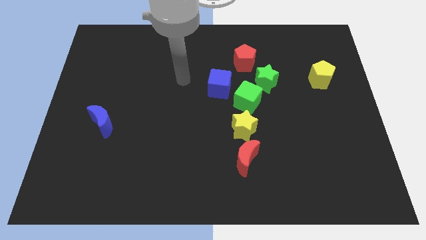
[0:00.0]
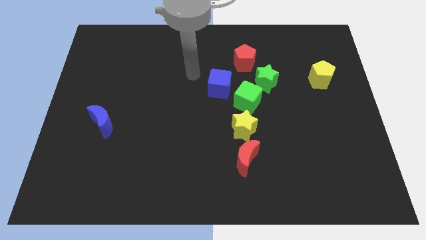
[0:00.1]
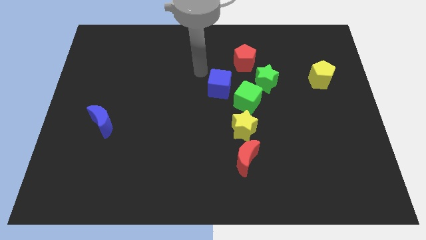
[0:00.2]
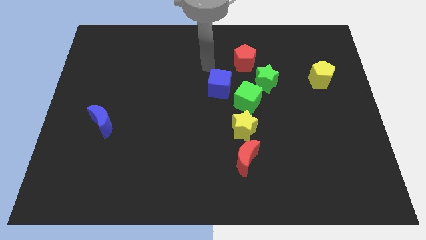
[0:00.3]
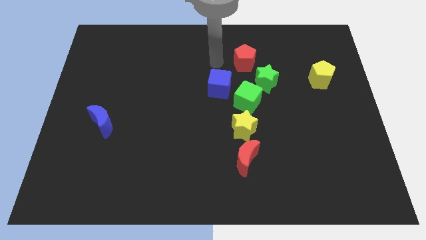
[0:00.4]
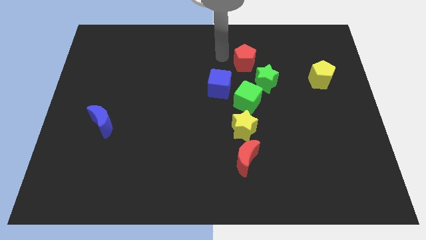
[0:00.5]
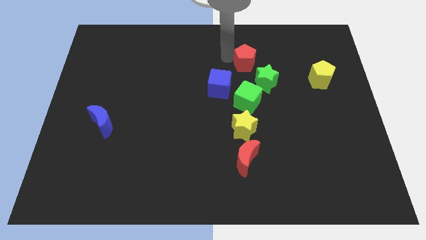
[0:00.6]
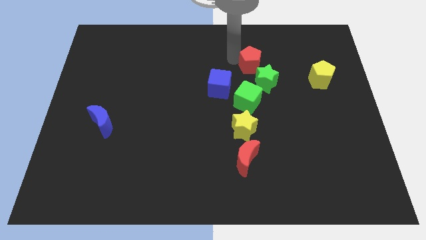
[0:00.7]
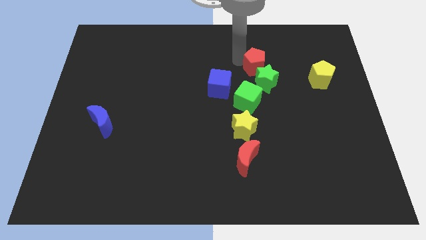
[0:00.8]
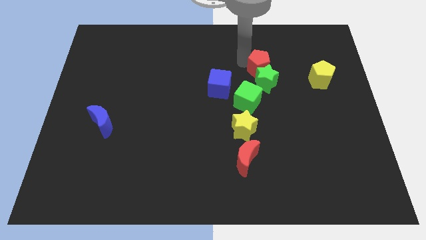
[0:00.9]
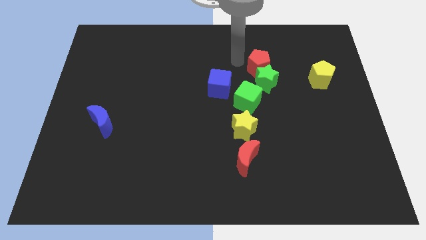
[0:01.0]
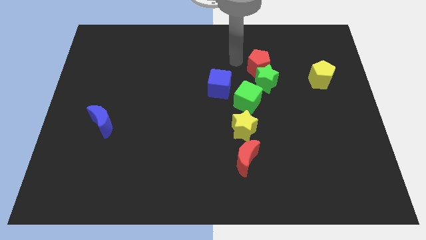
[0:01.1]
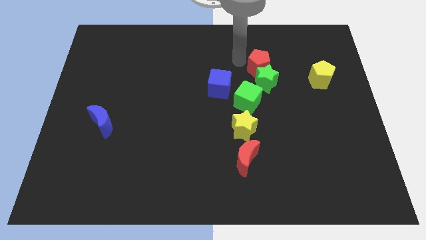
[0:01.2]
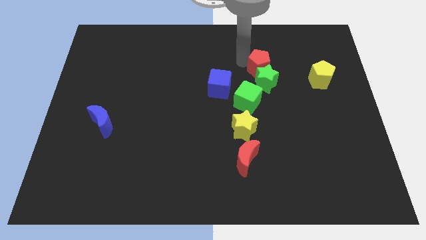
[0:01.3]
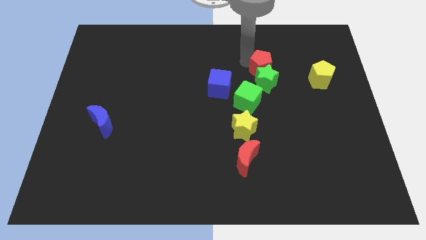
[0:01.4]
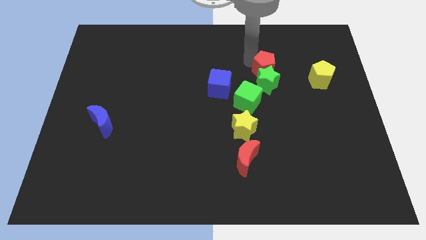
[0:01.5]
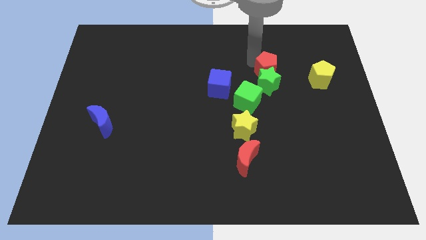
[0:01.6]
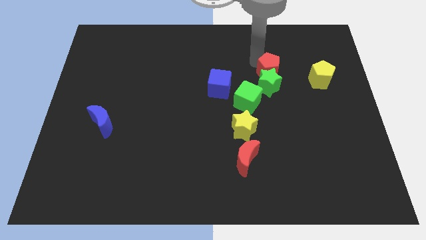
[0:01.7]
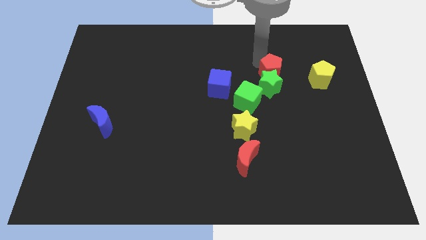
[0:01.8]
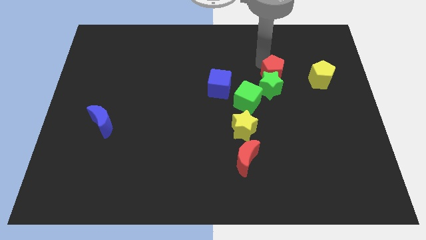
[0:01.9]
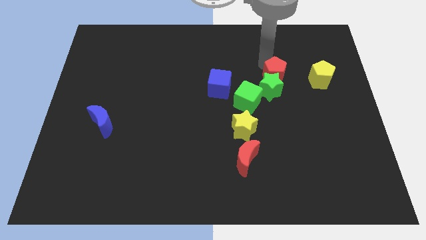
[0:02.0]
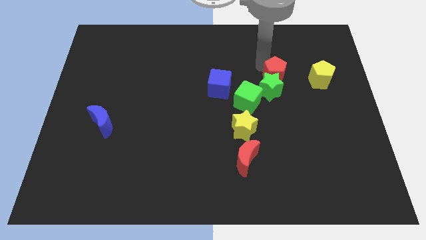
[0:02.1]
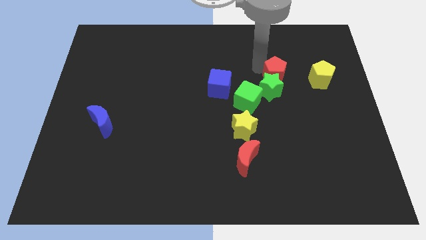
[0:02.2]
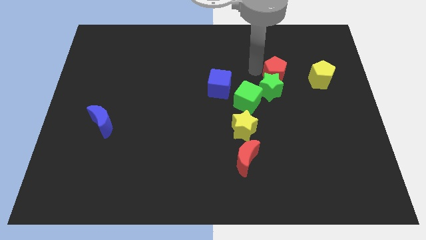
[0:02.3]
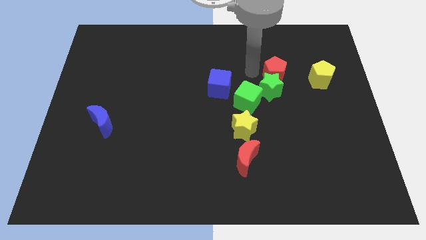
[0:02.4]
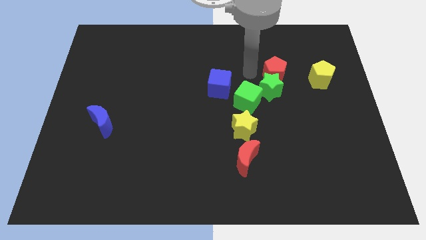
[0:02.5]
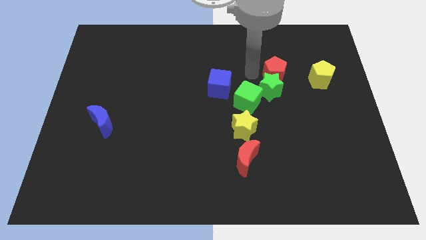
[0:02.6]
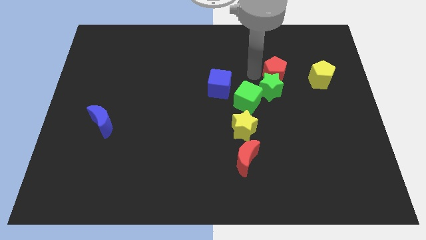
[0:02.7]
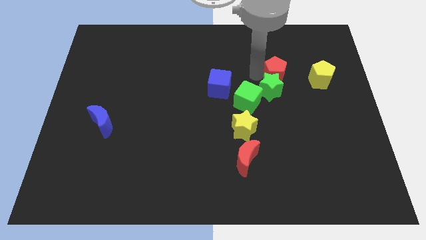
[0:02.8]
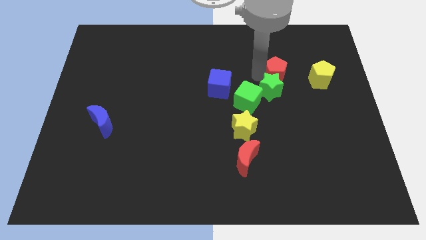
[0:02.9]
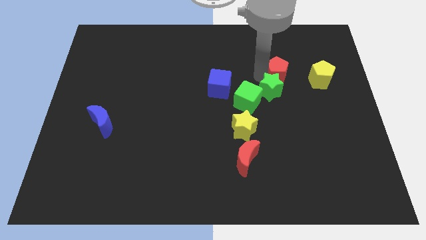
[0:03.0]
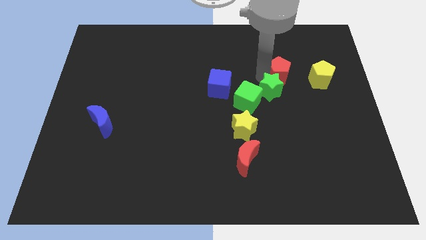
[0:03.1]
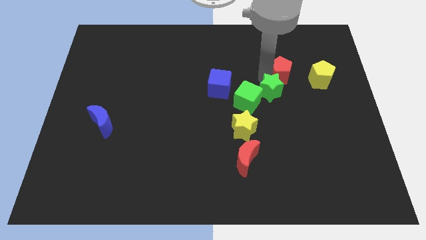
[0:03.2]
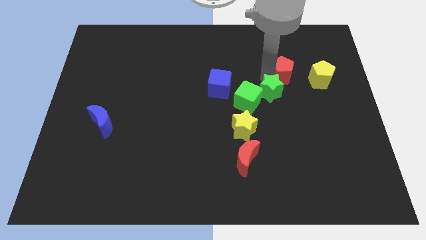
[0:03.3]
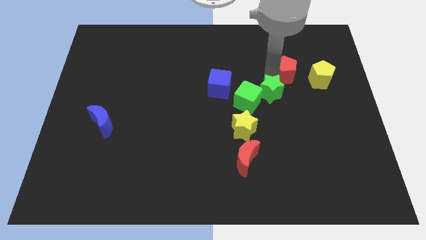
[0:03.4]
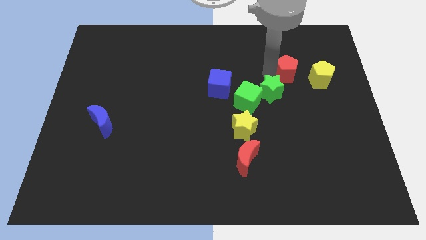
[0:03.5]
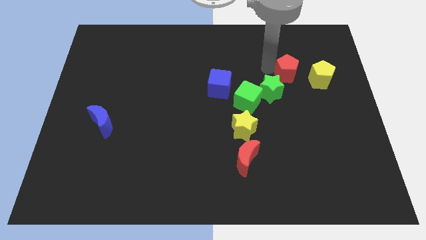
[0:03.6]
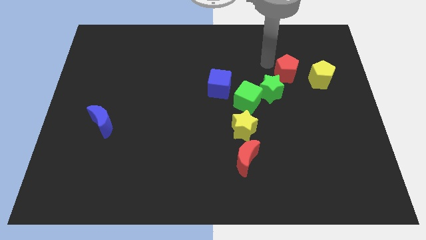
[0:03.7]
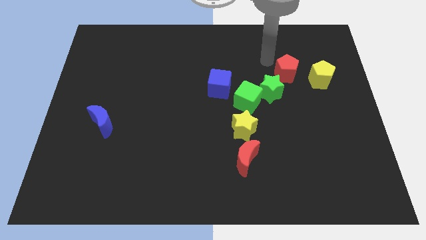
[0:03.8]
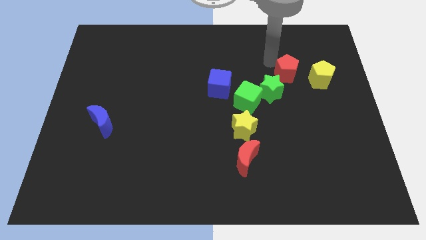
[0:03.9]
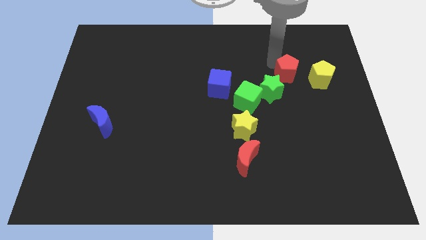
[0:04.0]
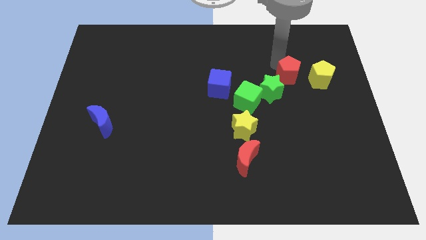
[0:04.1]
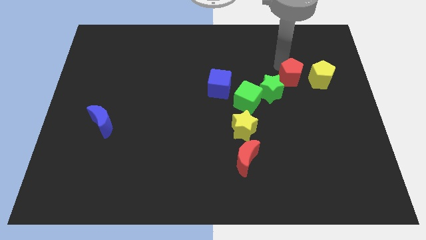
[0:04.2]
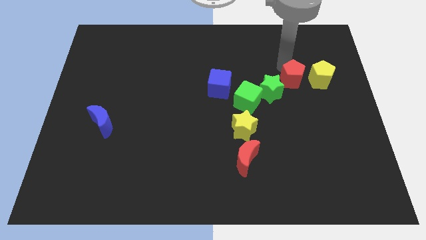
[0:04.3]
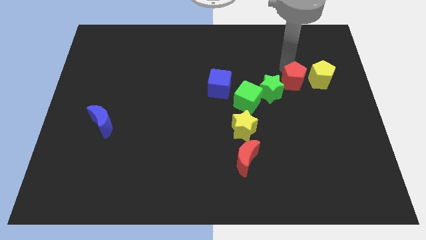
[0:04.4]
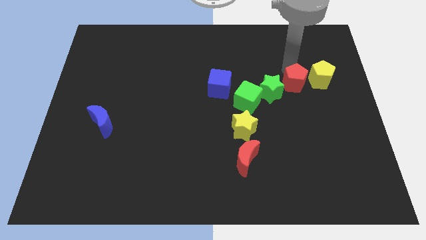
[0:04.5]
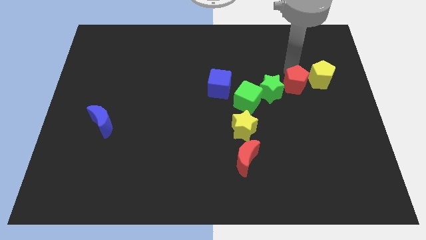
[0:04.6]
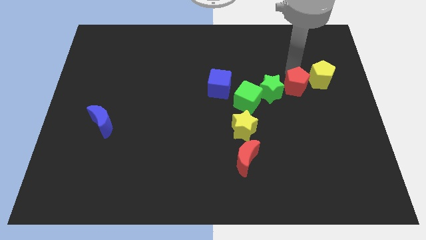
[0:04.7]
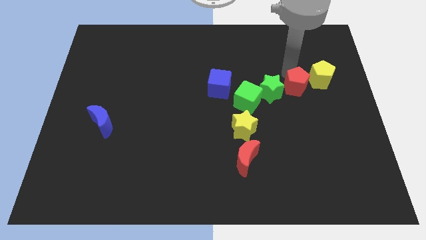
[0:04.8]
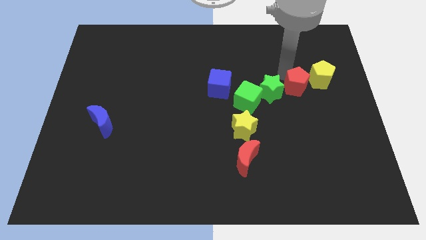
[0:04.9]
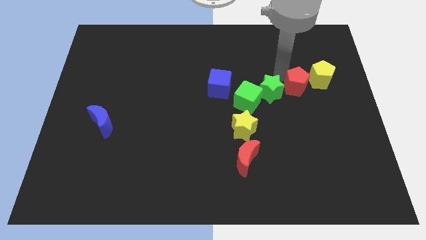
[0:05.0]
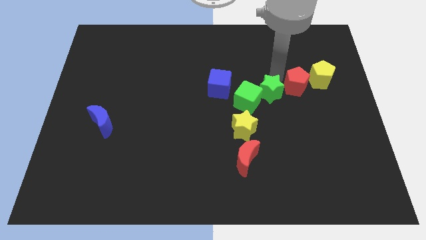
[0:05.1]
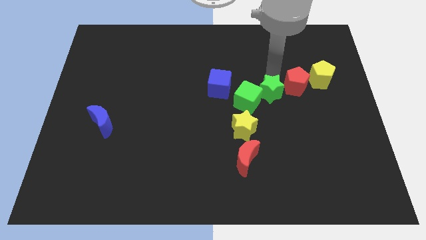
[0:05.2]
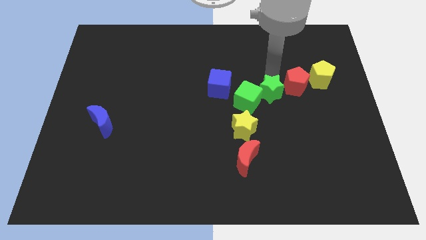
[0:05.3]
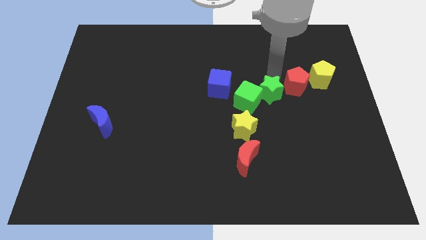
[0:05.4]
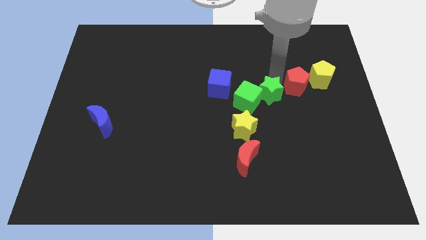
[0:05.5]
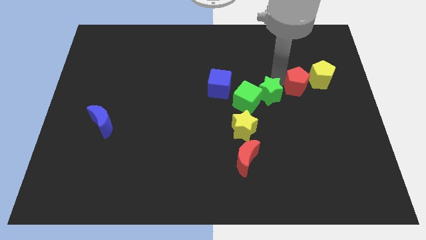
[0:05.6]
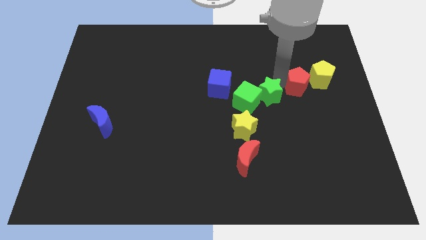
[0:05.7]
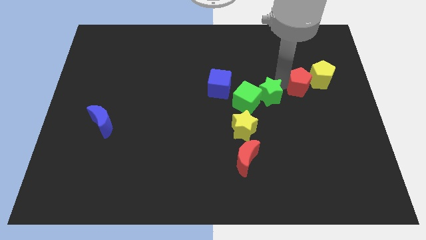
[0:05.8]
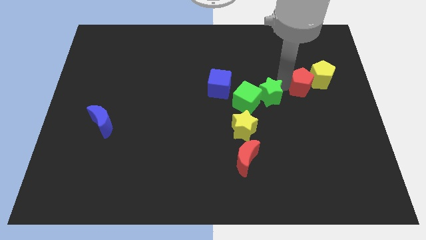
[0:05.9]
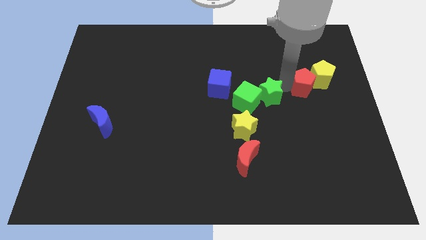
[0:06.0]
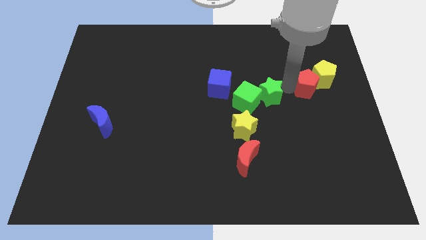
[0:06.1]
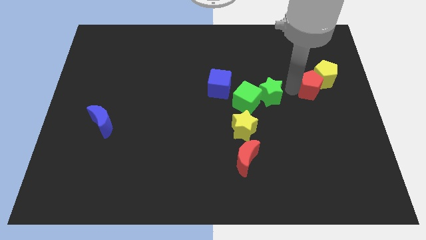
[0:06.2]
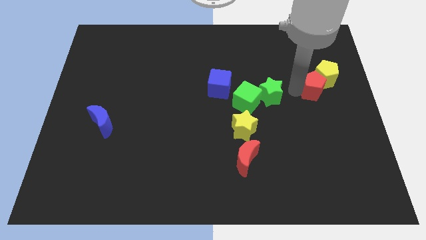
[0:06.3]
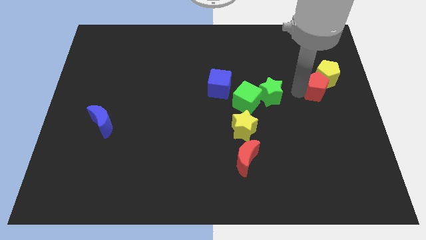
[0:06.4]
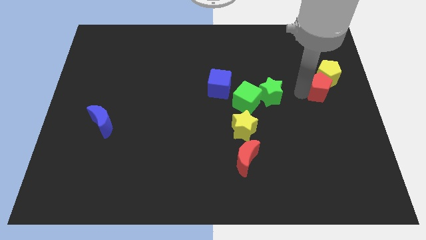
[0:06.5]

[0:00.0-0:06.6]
push the red pentagon to the right side

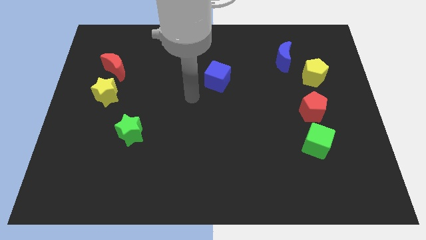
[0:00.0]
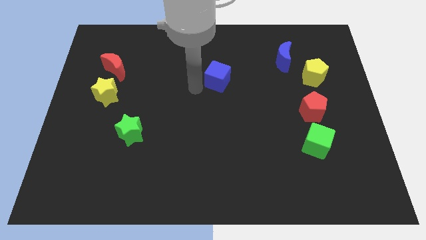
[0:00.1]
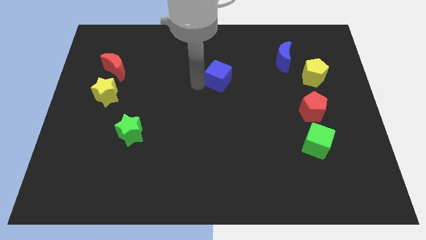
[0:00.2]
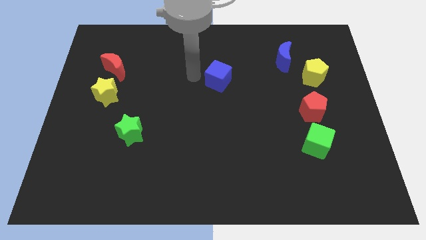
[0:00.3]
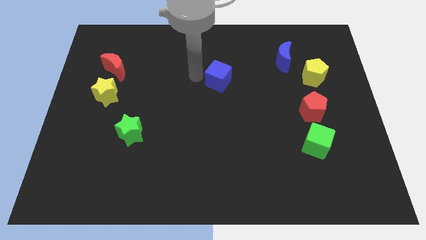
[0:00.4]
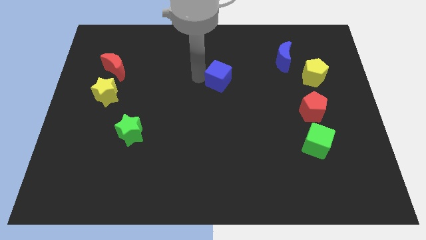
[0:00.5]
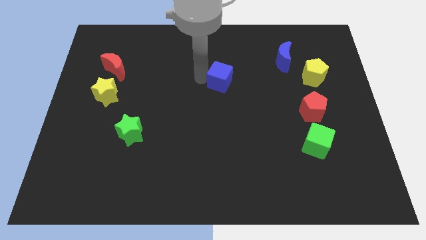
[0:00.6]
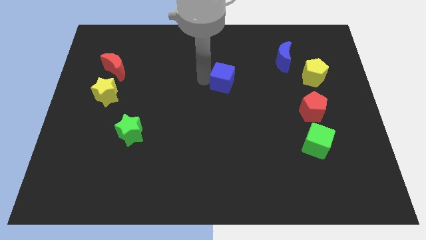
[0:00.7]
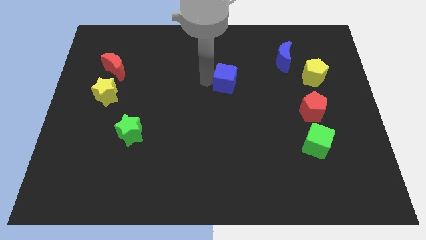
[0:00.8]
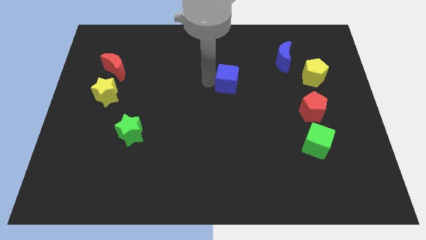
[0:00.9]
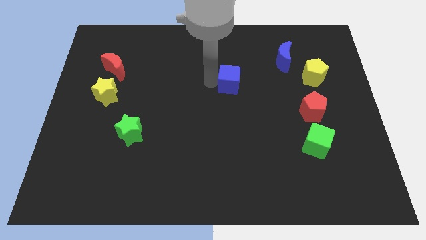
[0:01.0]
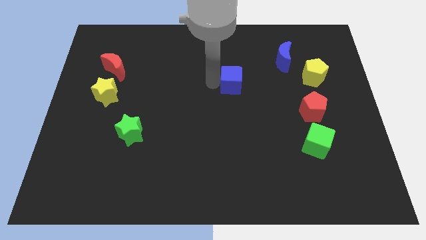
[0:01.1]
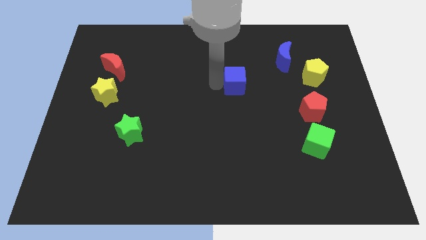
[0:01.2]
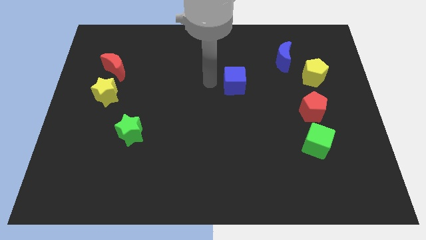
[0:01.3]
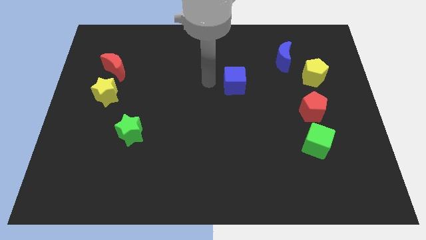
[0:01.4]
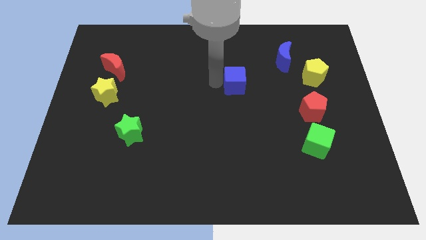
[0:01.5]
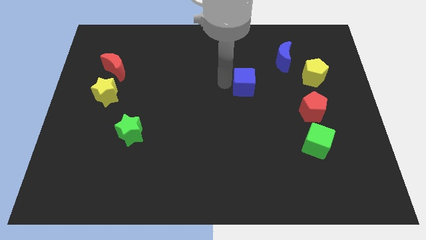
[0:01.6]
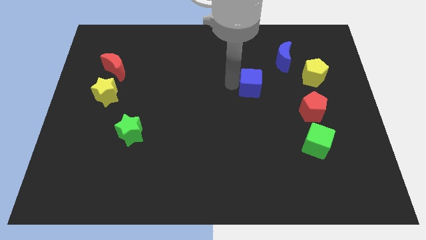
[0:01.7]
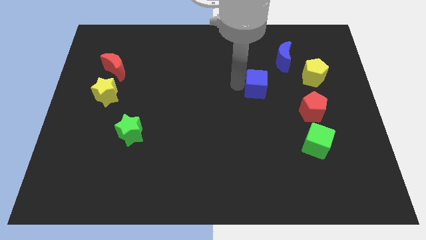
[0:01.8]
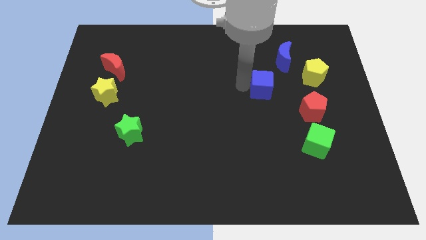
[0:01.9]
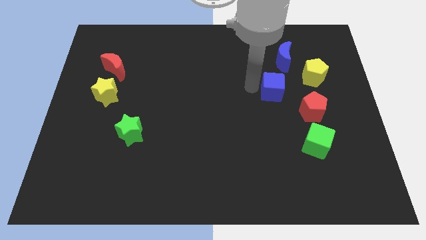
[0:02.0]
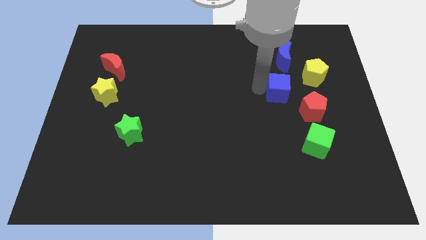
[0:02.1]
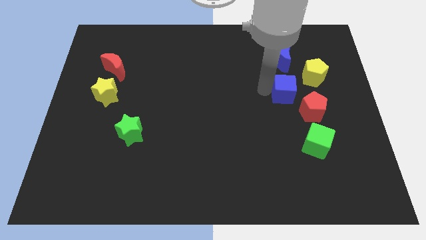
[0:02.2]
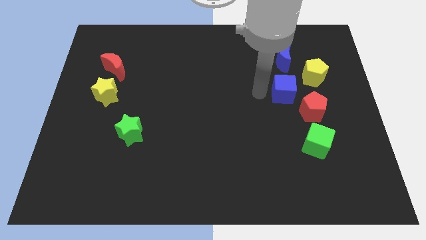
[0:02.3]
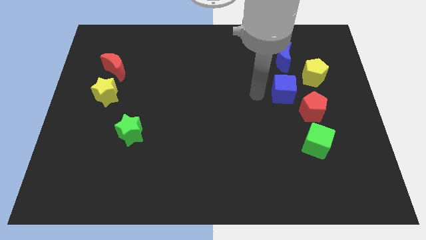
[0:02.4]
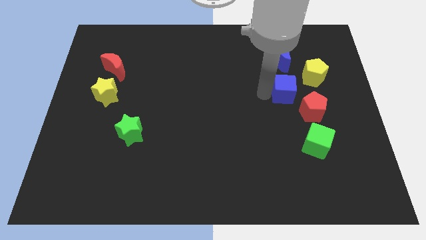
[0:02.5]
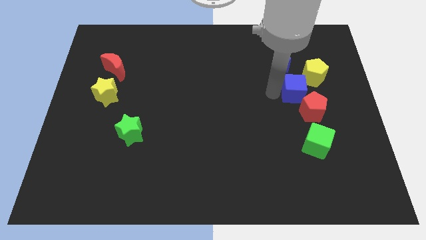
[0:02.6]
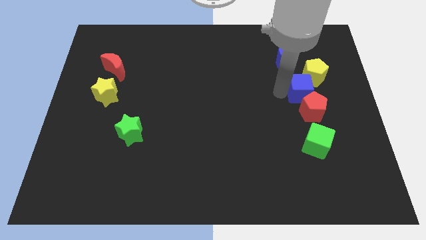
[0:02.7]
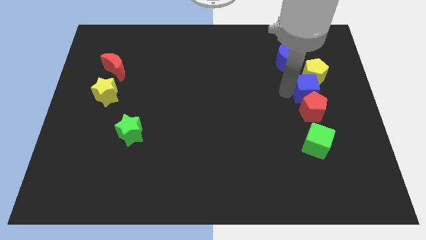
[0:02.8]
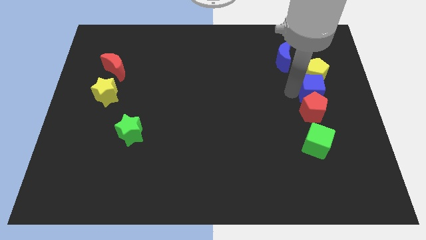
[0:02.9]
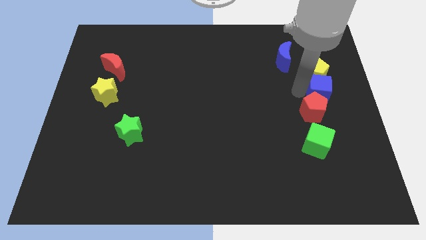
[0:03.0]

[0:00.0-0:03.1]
put the blue cube to the center right
